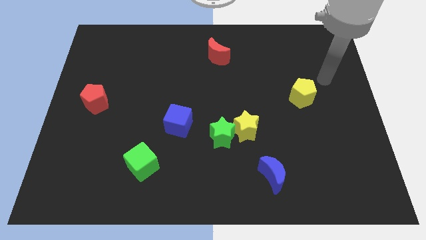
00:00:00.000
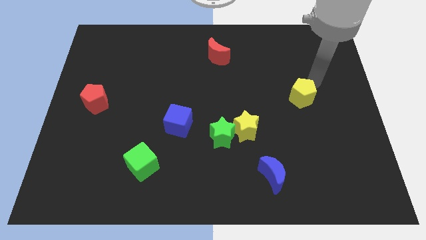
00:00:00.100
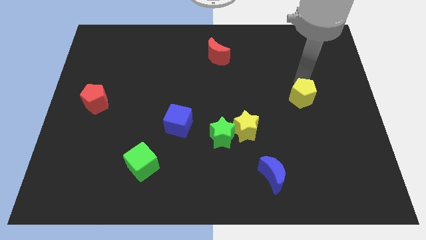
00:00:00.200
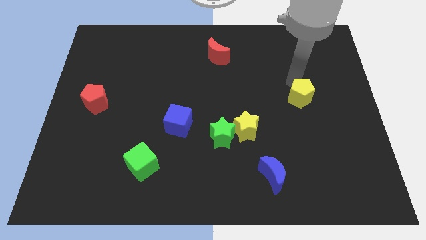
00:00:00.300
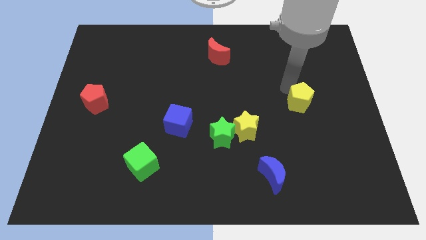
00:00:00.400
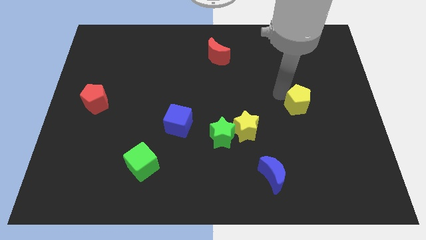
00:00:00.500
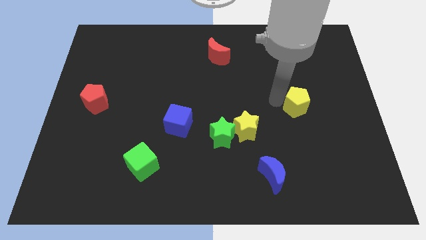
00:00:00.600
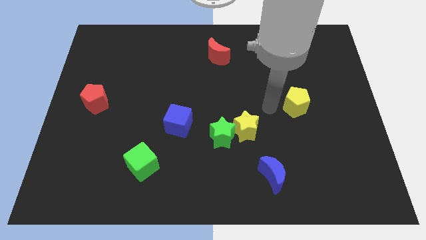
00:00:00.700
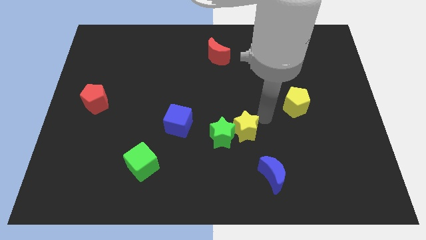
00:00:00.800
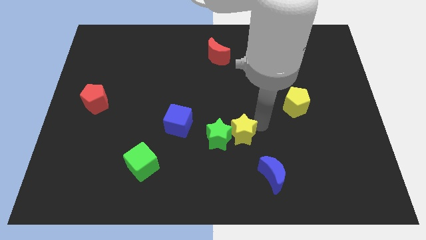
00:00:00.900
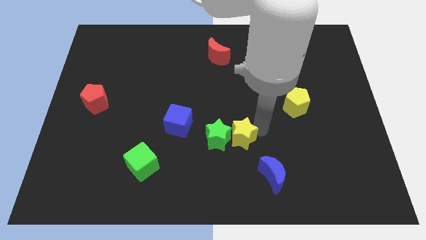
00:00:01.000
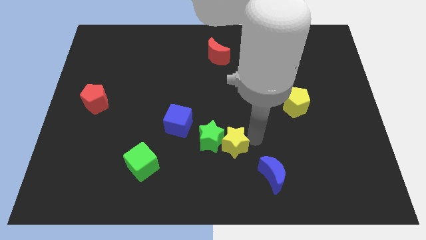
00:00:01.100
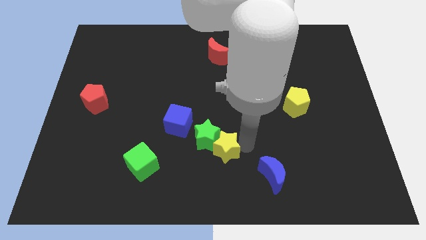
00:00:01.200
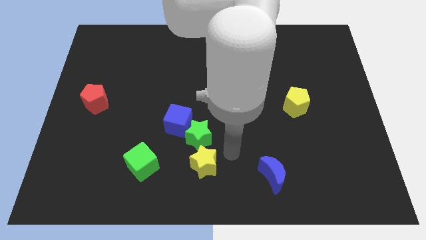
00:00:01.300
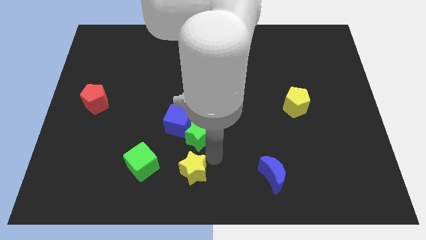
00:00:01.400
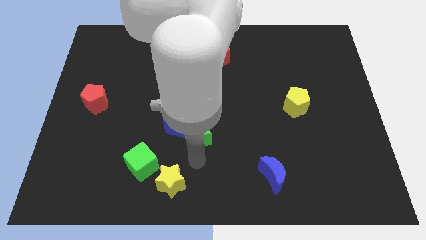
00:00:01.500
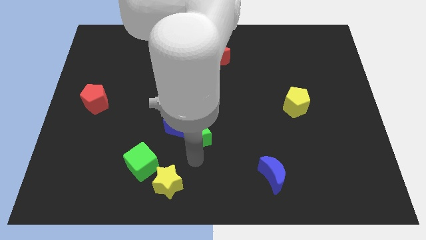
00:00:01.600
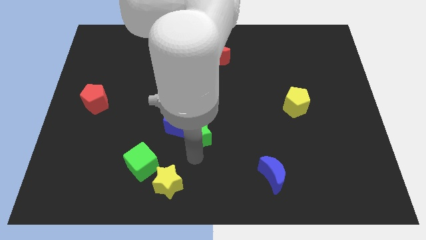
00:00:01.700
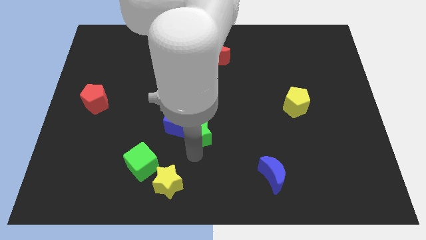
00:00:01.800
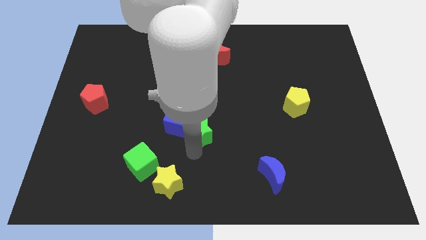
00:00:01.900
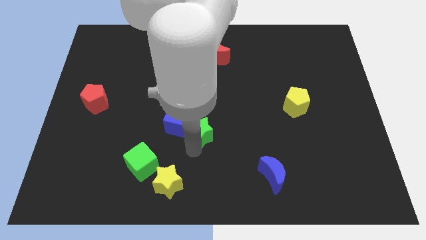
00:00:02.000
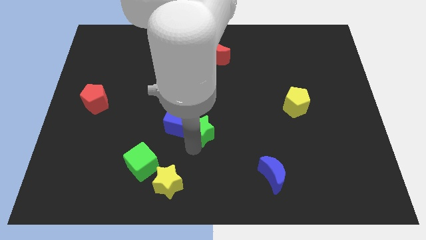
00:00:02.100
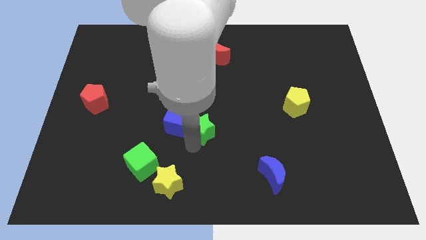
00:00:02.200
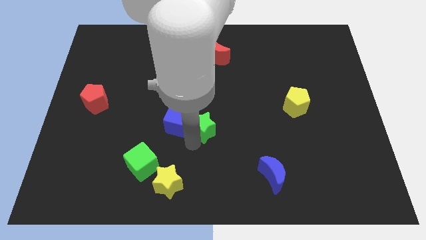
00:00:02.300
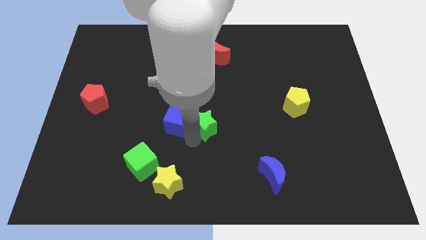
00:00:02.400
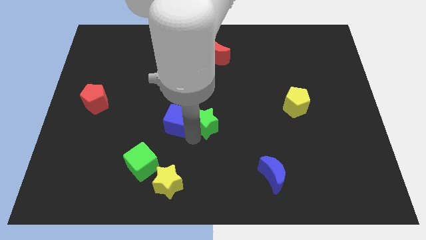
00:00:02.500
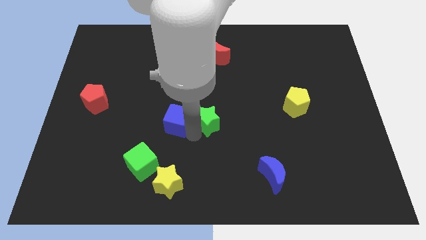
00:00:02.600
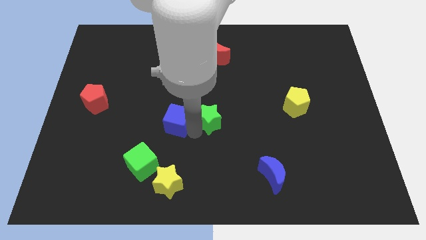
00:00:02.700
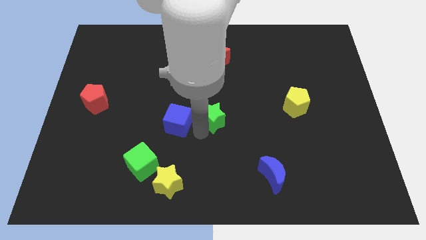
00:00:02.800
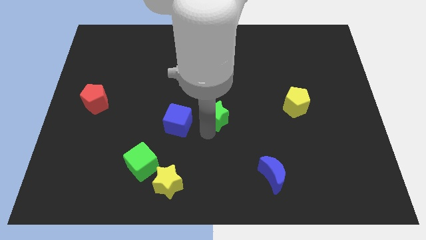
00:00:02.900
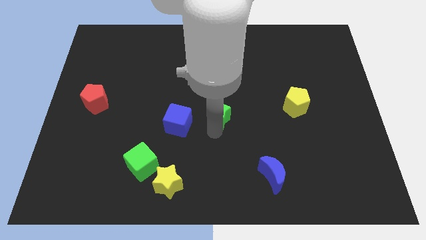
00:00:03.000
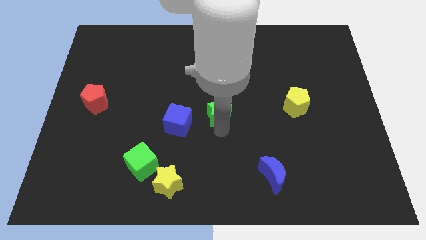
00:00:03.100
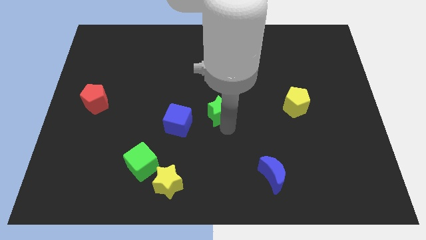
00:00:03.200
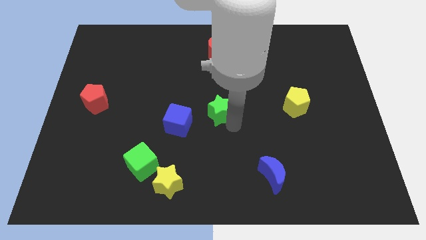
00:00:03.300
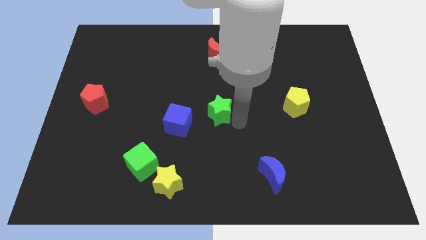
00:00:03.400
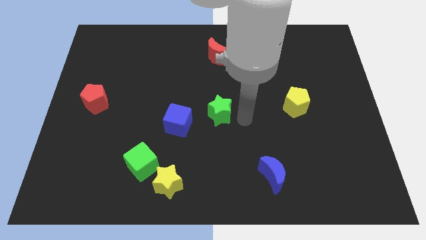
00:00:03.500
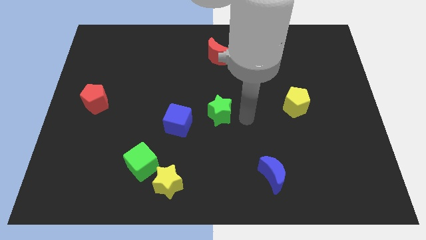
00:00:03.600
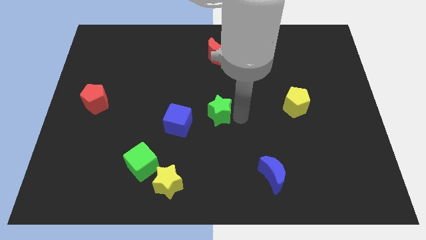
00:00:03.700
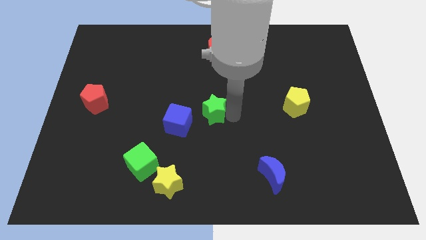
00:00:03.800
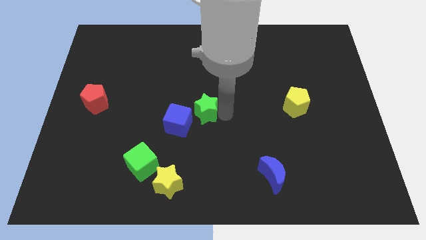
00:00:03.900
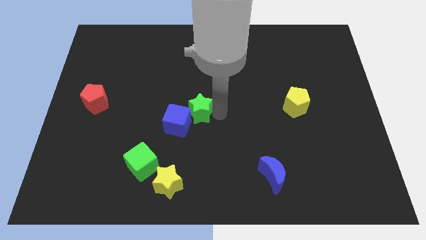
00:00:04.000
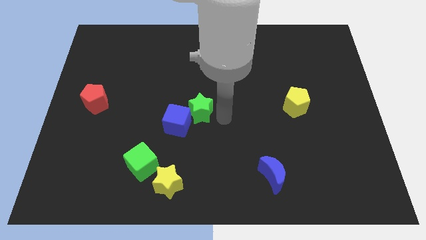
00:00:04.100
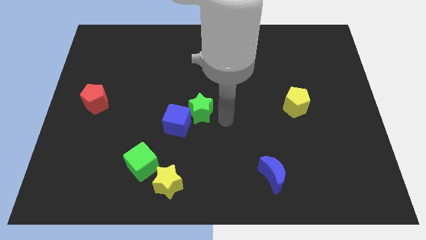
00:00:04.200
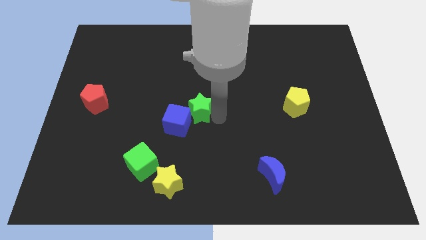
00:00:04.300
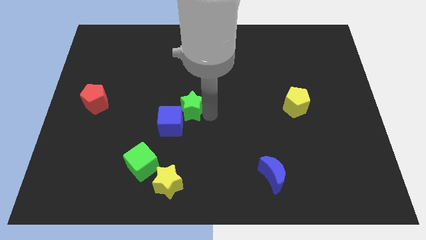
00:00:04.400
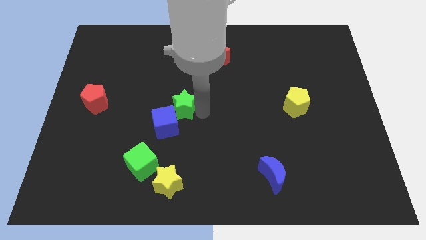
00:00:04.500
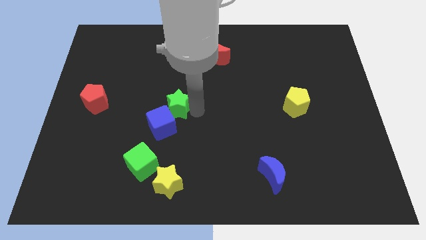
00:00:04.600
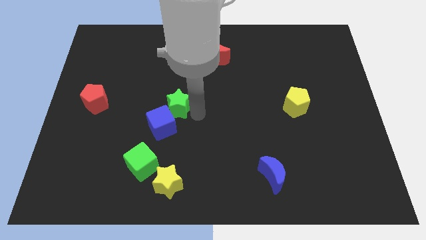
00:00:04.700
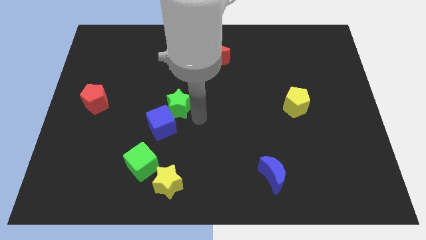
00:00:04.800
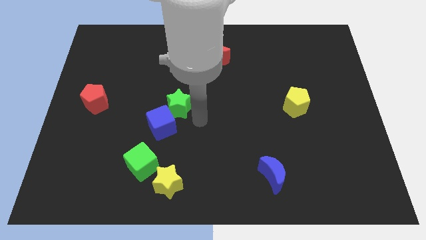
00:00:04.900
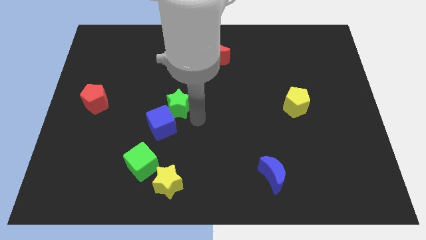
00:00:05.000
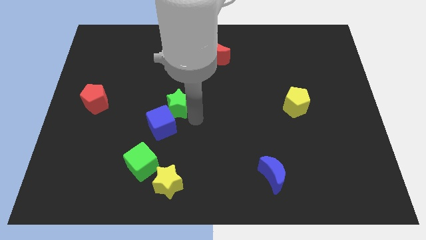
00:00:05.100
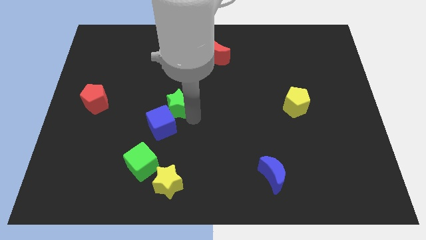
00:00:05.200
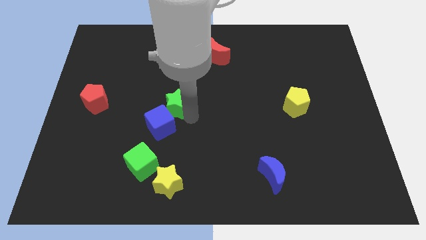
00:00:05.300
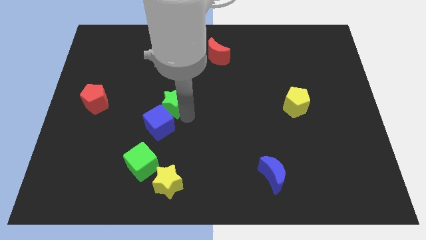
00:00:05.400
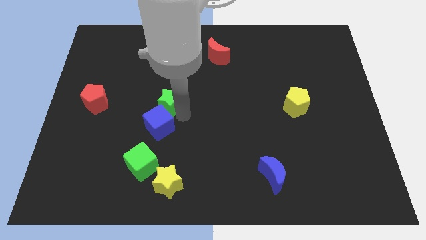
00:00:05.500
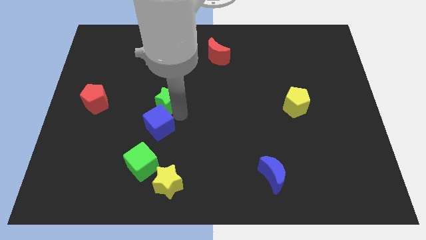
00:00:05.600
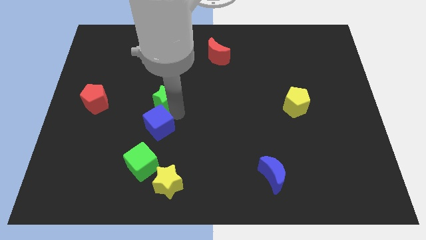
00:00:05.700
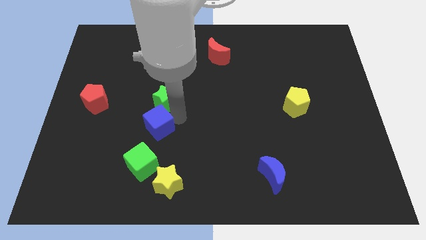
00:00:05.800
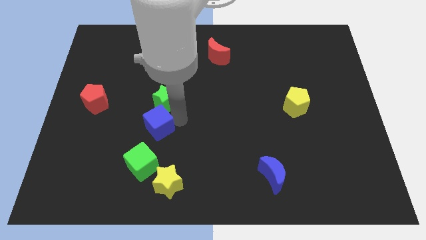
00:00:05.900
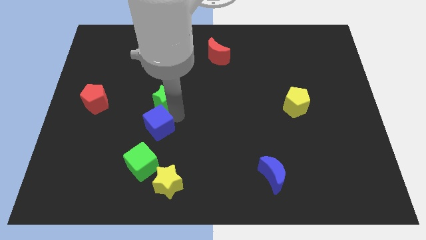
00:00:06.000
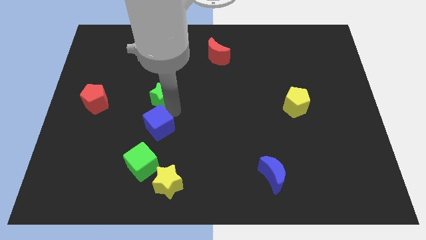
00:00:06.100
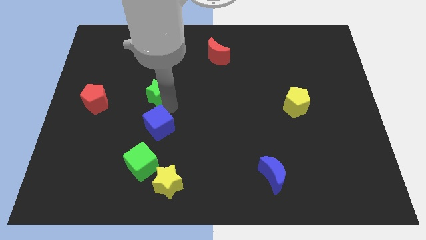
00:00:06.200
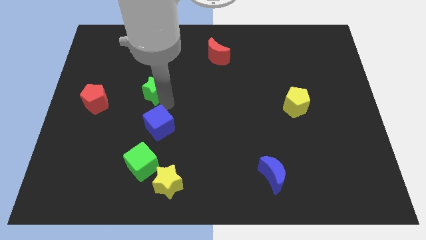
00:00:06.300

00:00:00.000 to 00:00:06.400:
slide the green star upwards and to the left diagonally

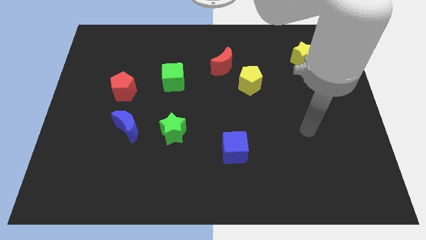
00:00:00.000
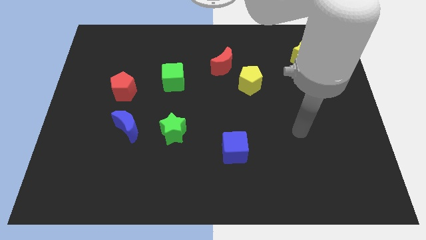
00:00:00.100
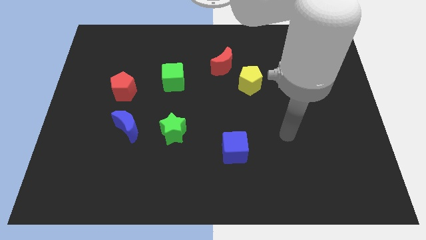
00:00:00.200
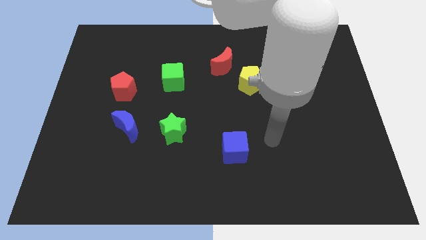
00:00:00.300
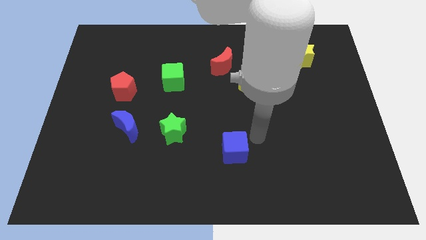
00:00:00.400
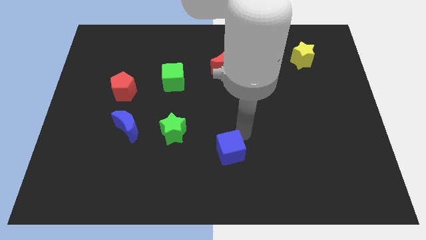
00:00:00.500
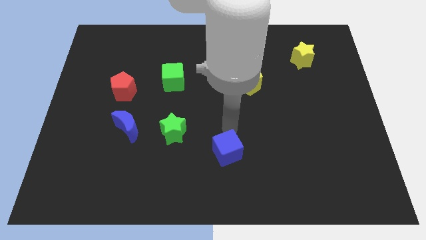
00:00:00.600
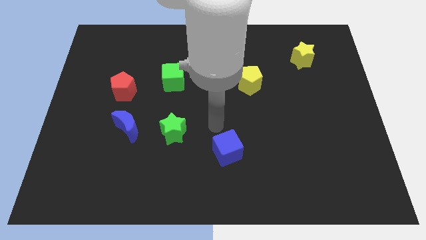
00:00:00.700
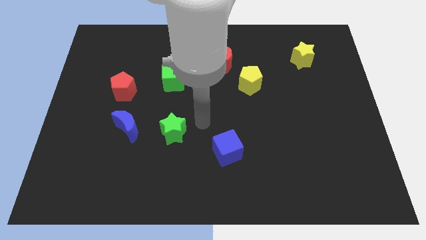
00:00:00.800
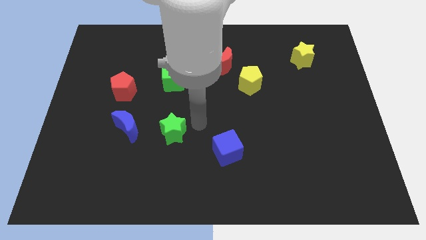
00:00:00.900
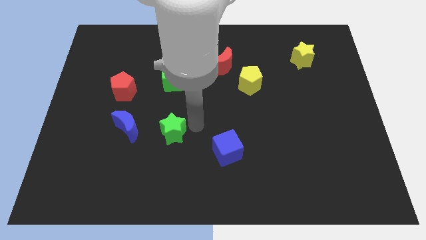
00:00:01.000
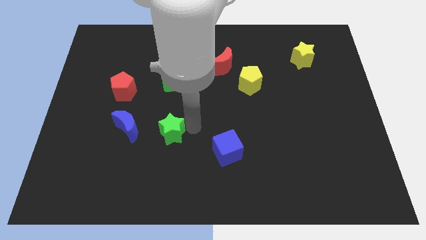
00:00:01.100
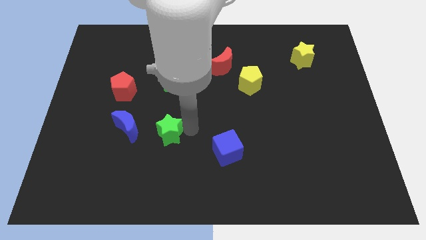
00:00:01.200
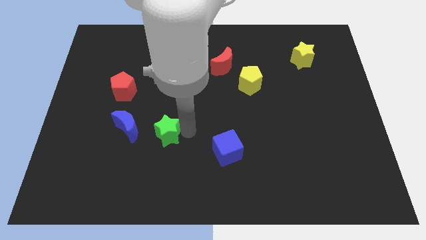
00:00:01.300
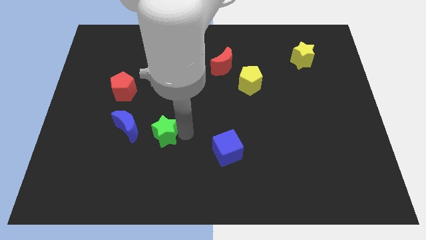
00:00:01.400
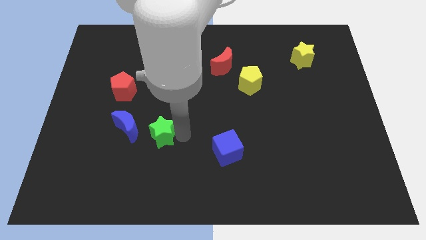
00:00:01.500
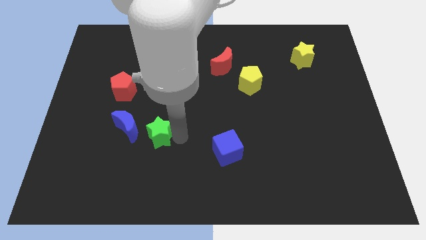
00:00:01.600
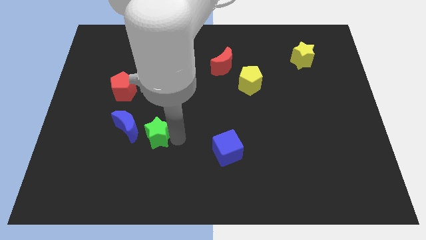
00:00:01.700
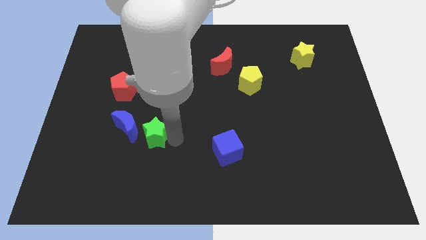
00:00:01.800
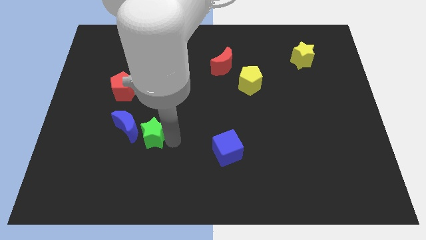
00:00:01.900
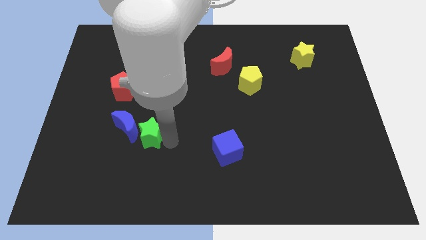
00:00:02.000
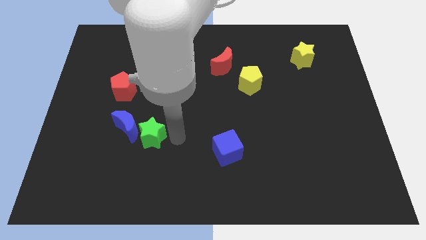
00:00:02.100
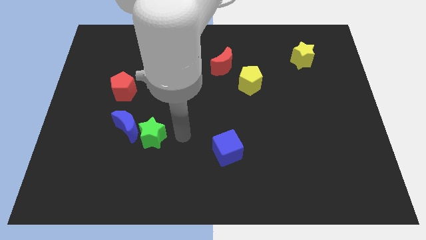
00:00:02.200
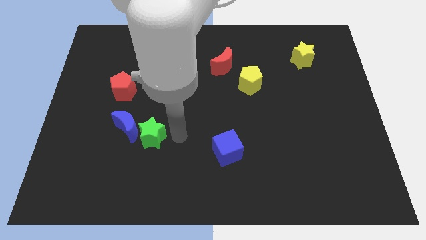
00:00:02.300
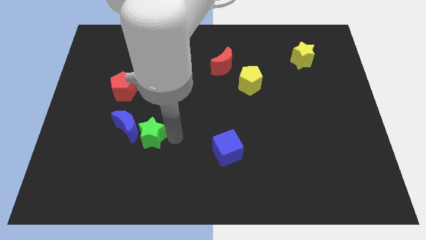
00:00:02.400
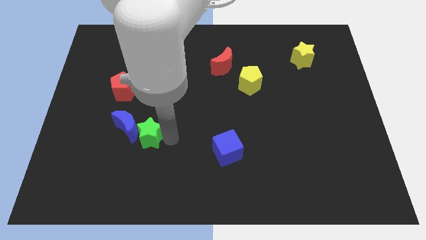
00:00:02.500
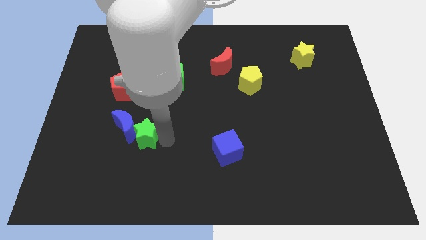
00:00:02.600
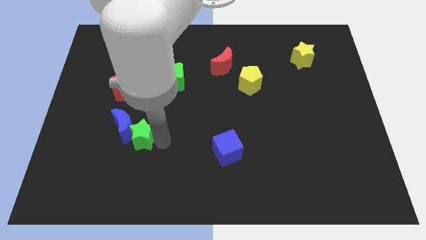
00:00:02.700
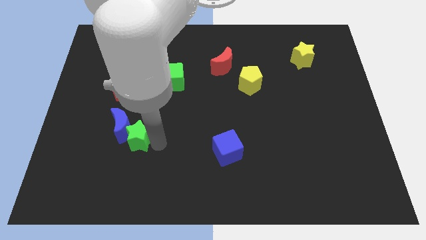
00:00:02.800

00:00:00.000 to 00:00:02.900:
slightly move the green star to the left
